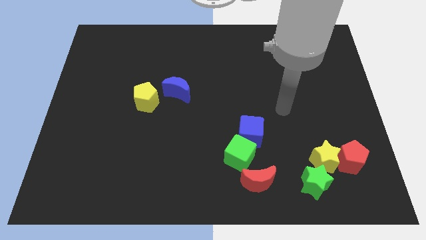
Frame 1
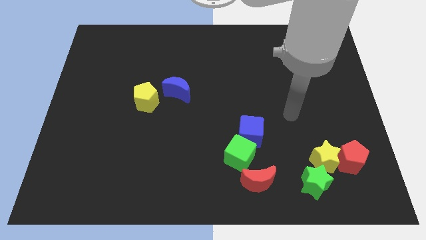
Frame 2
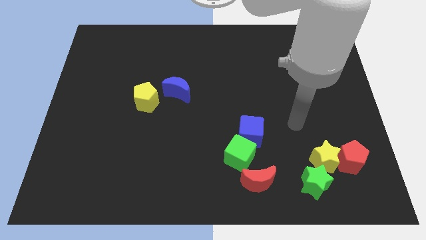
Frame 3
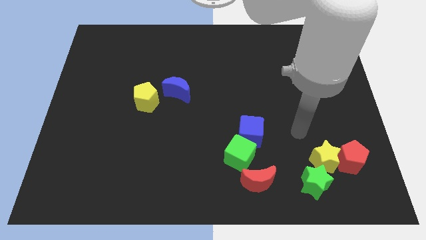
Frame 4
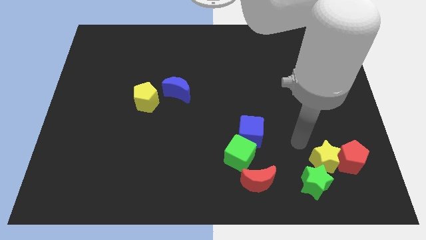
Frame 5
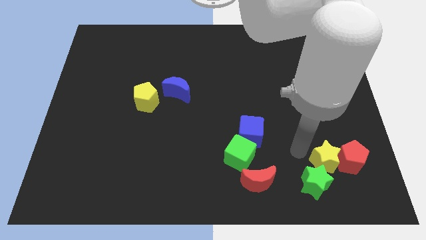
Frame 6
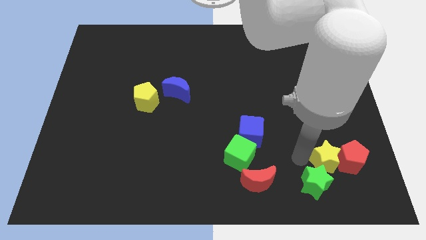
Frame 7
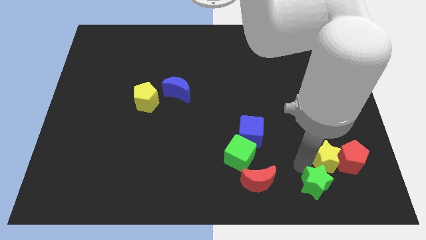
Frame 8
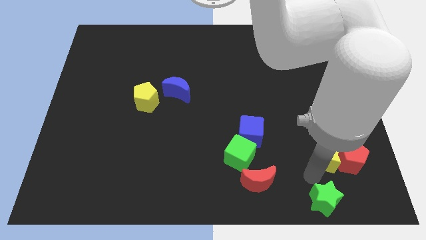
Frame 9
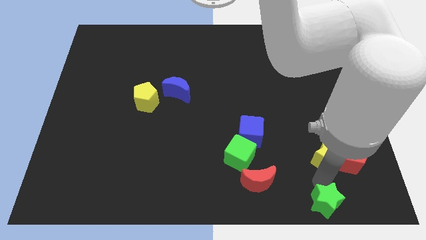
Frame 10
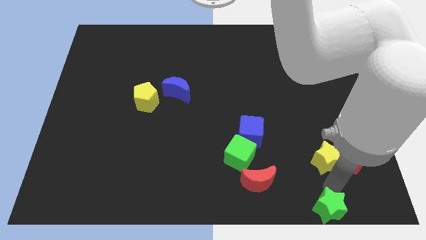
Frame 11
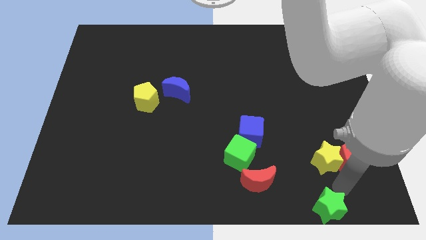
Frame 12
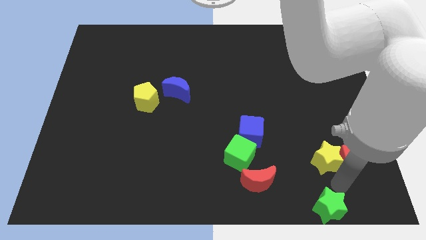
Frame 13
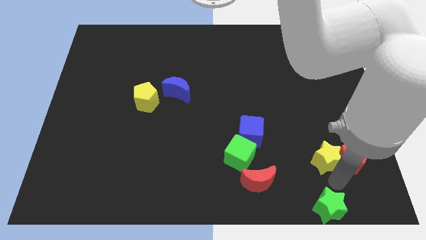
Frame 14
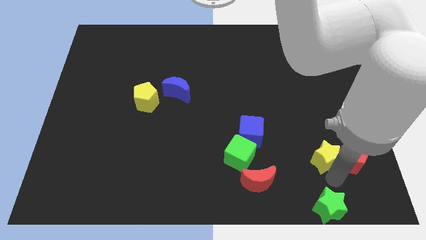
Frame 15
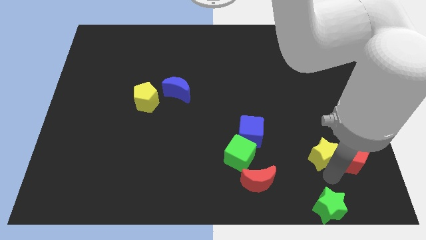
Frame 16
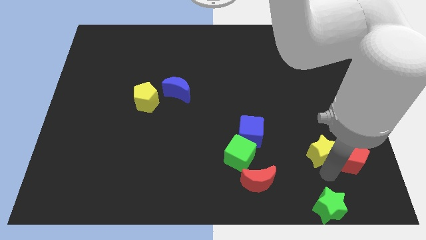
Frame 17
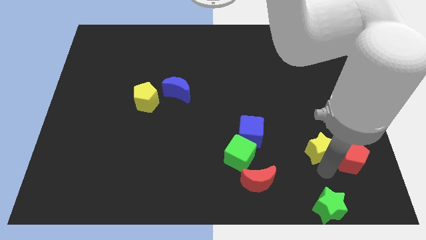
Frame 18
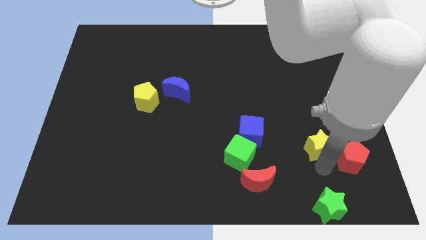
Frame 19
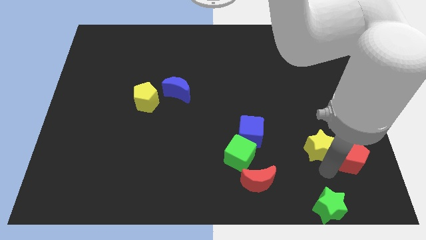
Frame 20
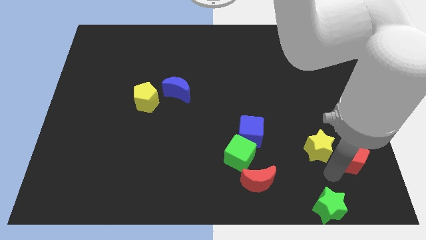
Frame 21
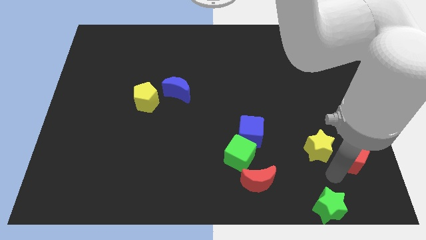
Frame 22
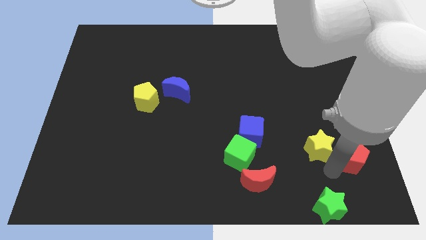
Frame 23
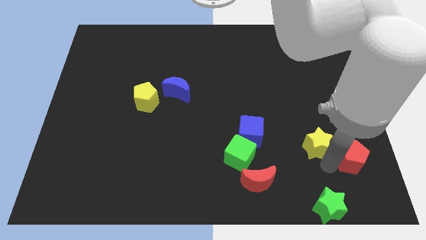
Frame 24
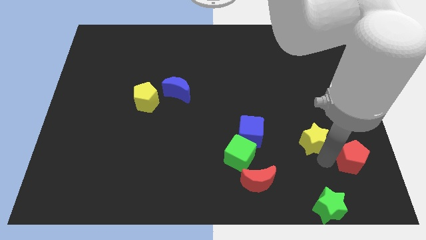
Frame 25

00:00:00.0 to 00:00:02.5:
move the yellow star away from the red pentagon and green star

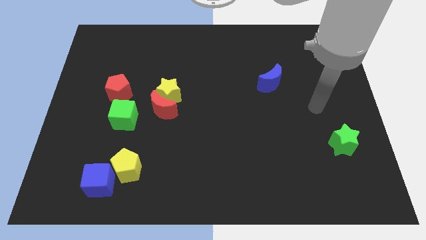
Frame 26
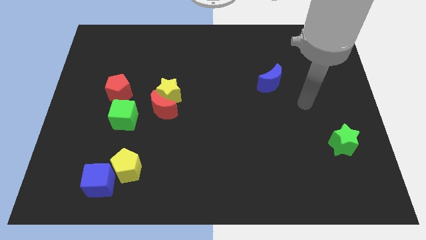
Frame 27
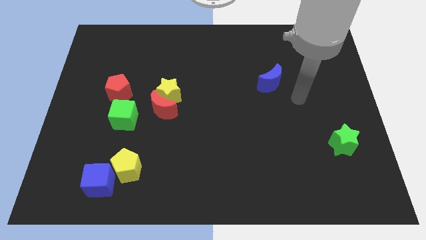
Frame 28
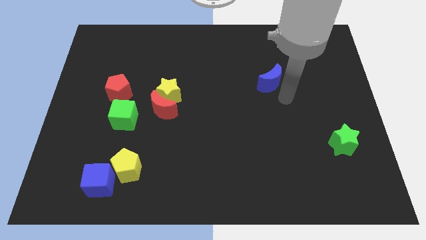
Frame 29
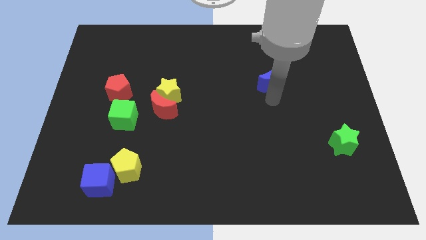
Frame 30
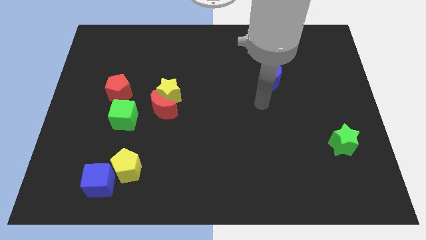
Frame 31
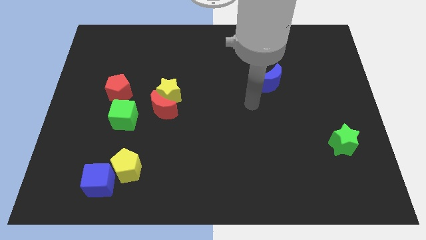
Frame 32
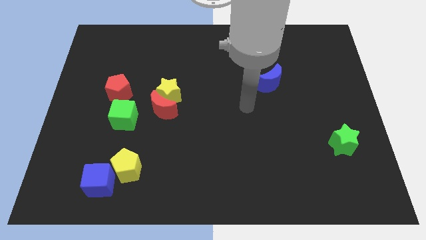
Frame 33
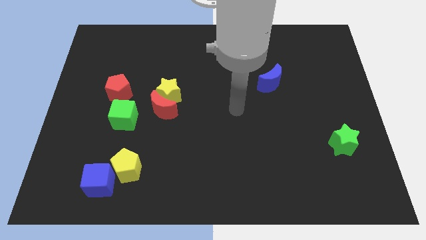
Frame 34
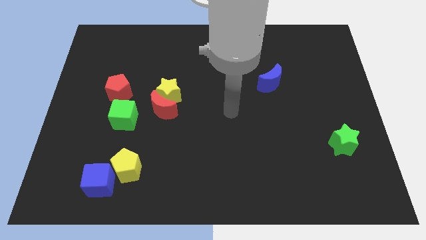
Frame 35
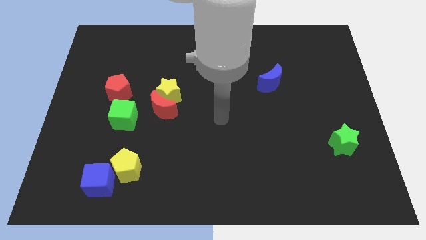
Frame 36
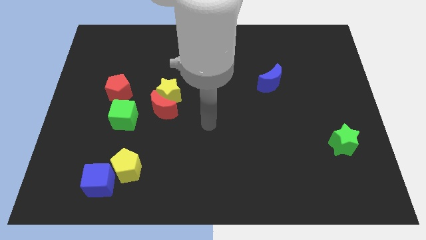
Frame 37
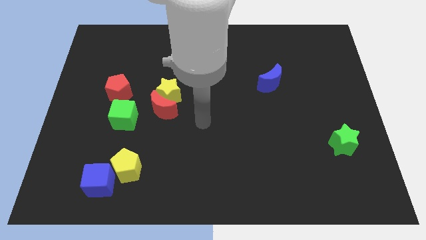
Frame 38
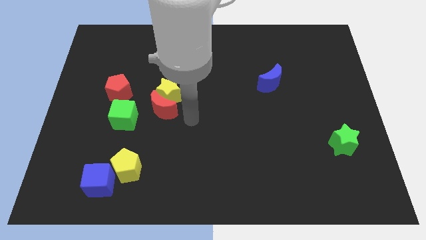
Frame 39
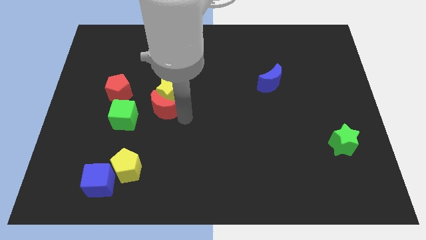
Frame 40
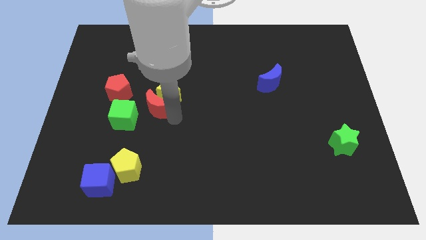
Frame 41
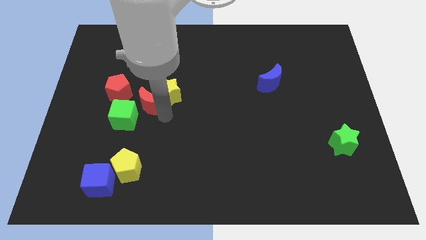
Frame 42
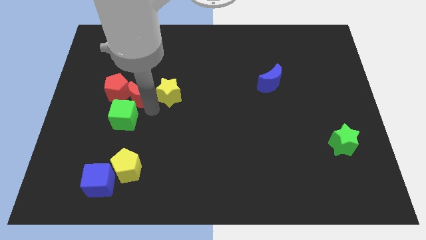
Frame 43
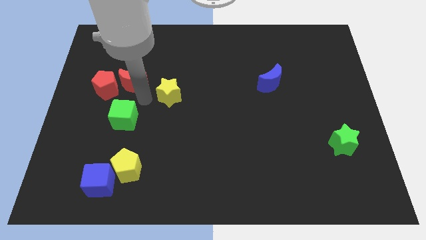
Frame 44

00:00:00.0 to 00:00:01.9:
separate the yellow star from the red moon

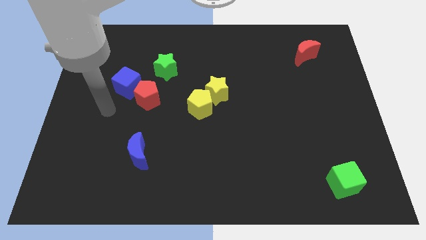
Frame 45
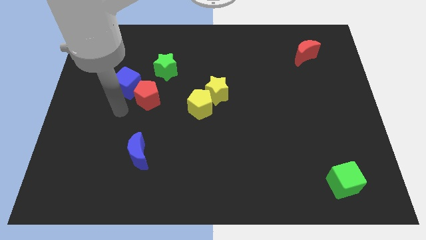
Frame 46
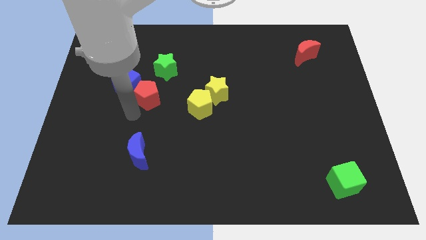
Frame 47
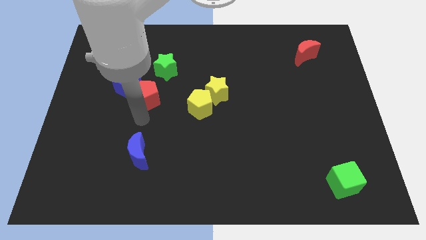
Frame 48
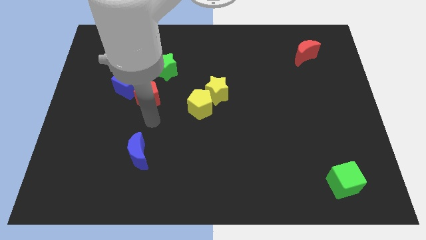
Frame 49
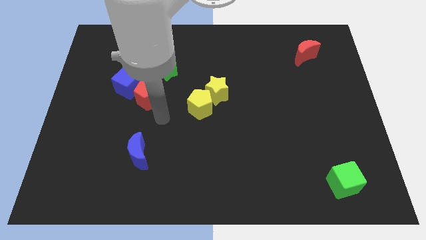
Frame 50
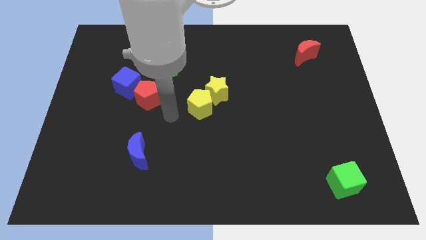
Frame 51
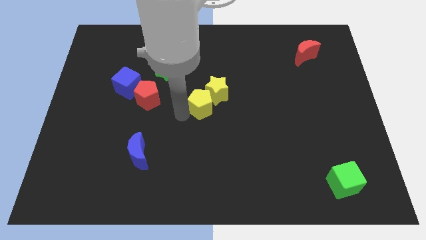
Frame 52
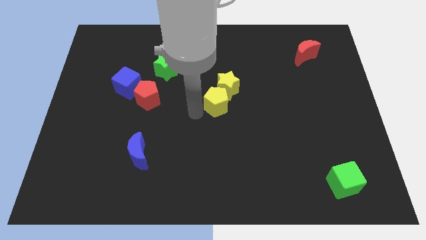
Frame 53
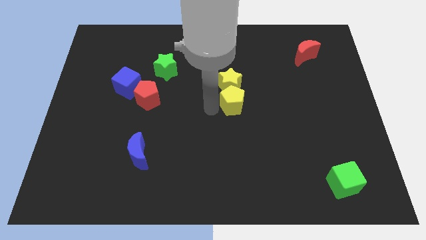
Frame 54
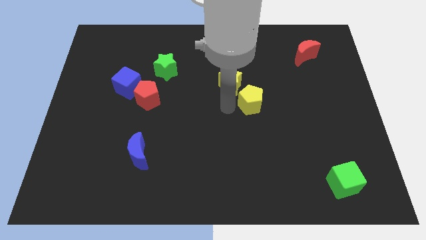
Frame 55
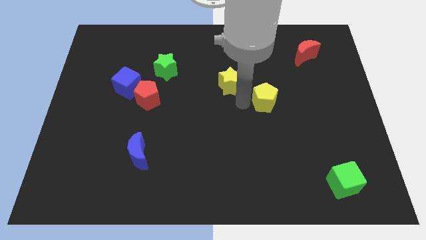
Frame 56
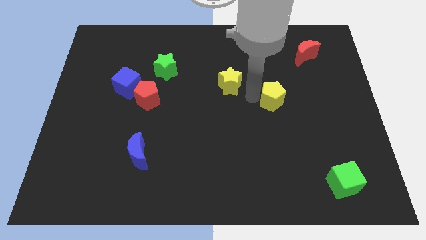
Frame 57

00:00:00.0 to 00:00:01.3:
move the yellow star away from the yellow pentagon

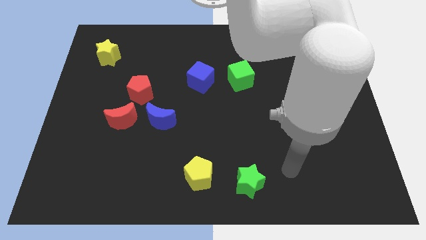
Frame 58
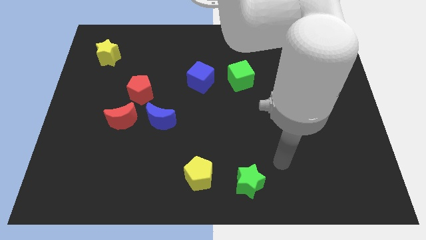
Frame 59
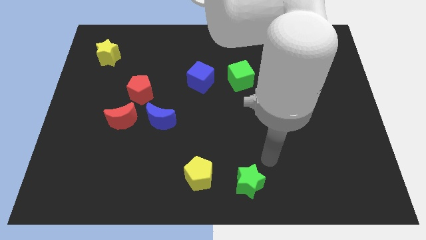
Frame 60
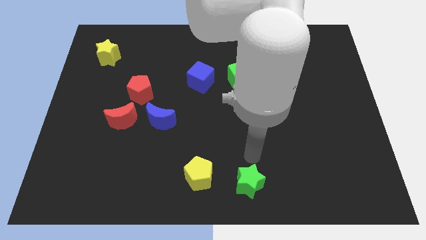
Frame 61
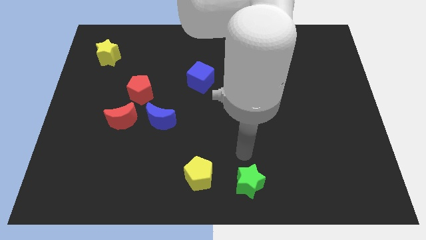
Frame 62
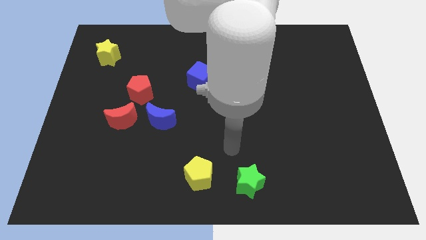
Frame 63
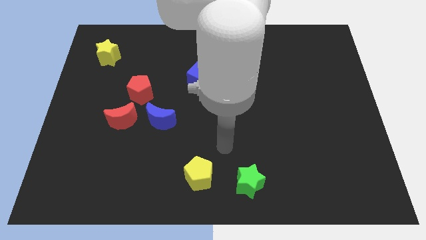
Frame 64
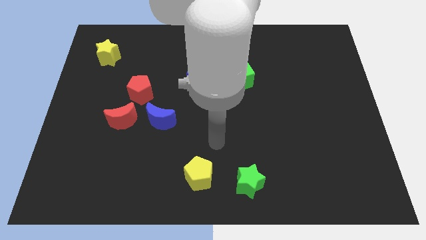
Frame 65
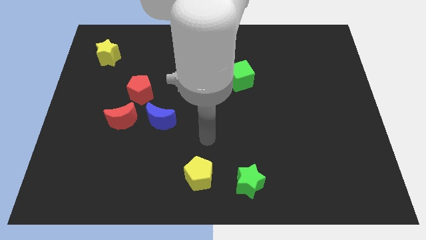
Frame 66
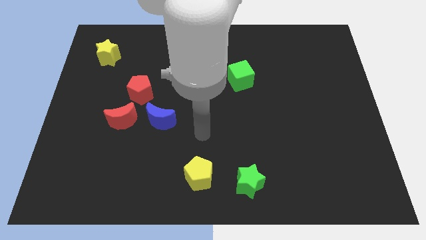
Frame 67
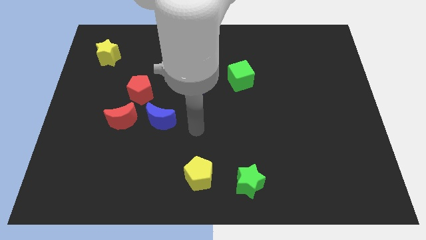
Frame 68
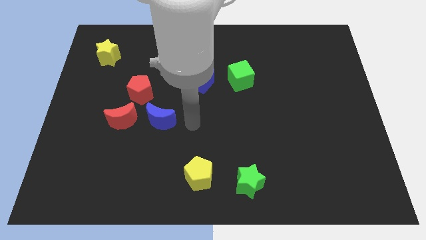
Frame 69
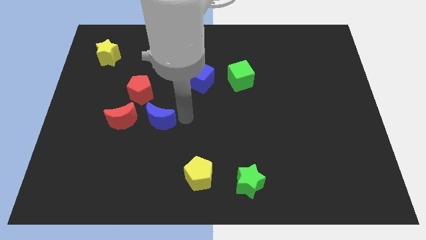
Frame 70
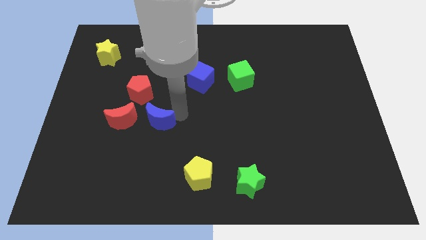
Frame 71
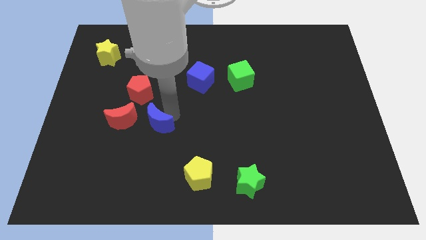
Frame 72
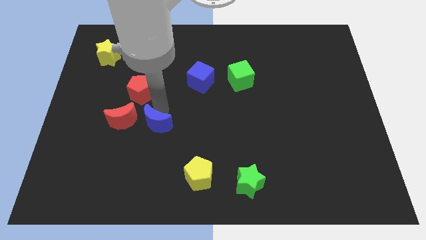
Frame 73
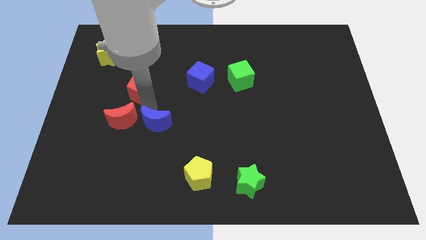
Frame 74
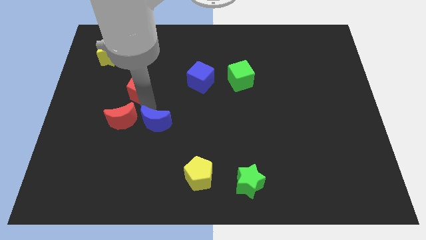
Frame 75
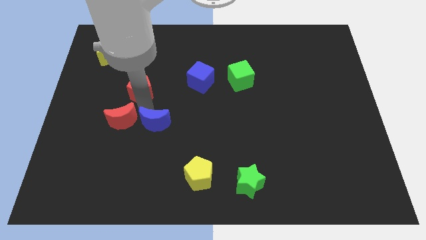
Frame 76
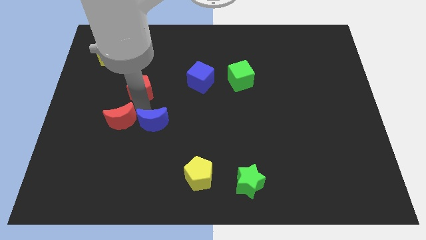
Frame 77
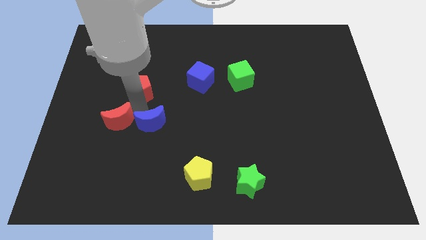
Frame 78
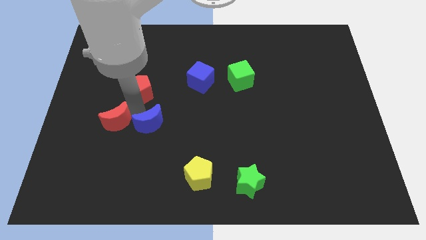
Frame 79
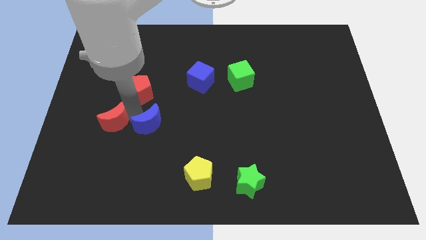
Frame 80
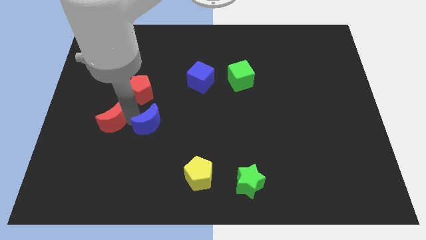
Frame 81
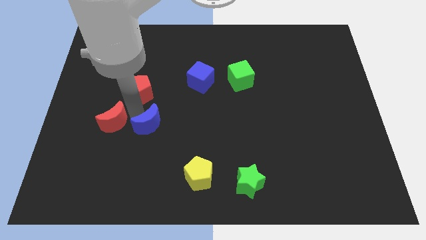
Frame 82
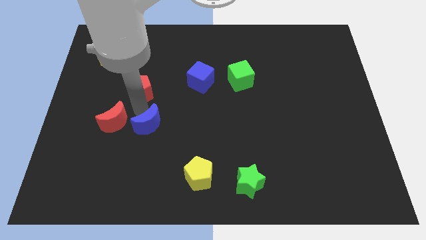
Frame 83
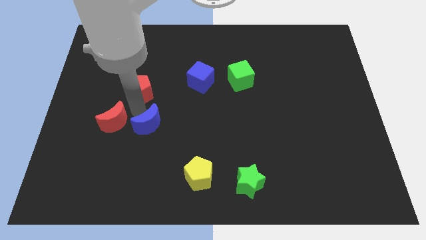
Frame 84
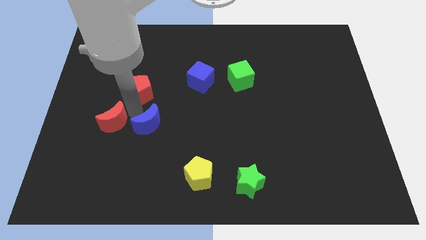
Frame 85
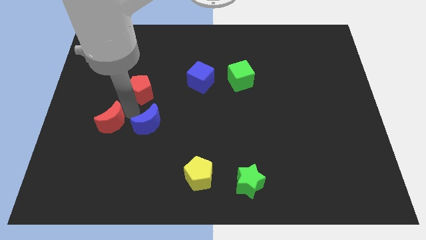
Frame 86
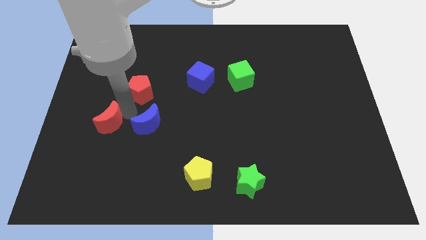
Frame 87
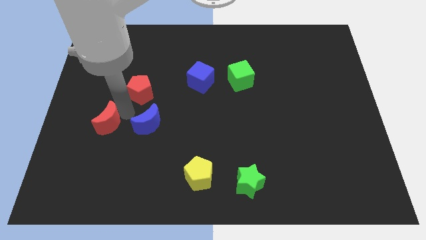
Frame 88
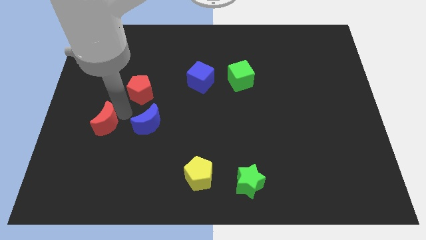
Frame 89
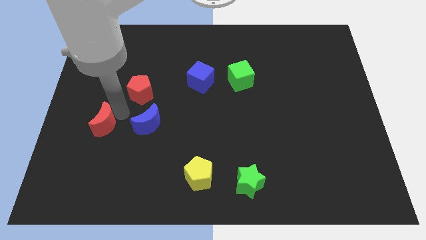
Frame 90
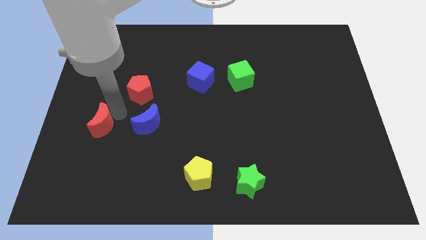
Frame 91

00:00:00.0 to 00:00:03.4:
pull the red moon apart from the blue moon and red pentagon

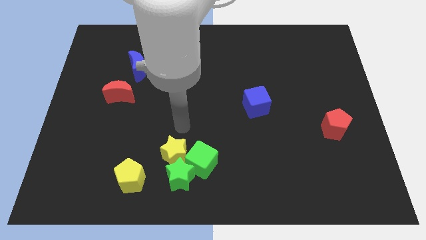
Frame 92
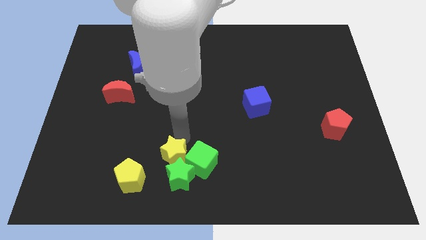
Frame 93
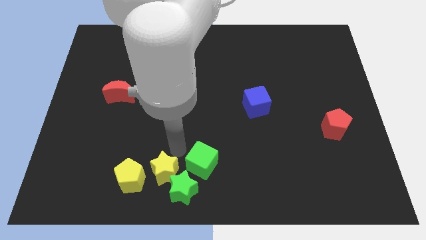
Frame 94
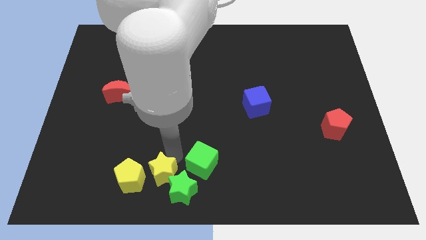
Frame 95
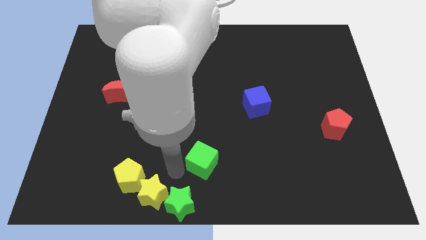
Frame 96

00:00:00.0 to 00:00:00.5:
pull the green cube apart from the green star and yellow star
